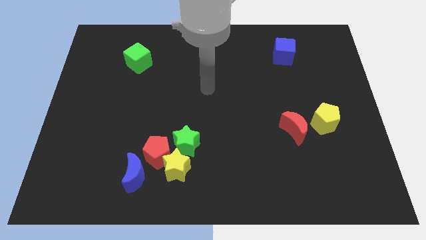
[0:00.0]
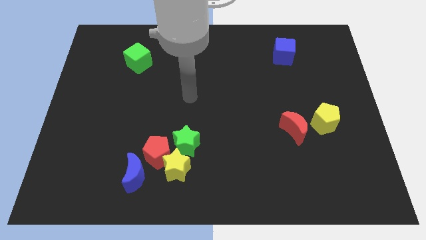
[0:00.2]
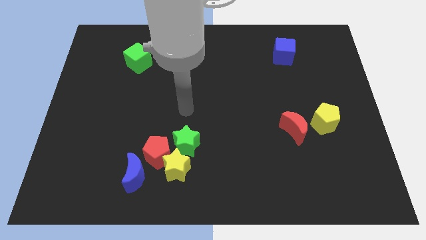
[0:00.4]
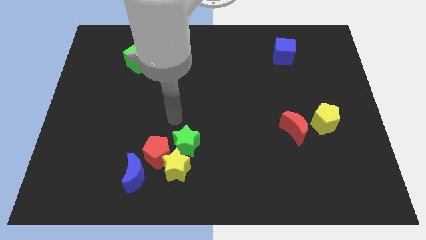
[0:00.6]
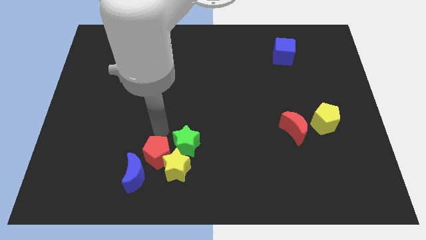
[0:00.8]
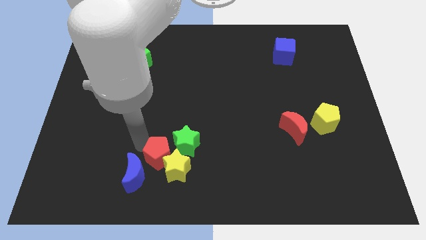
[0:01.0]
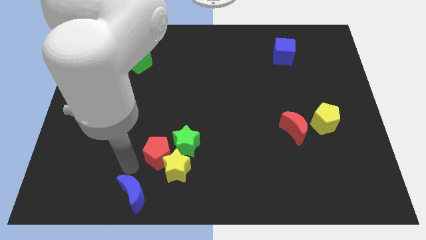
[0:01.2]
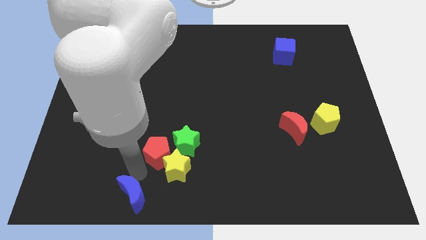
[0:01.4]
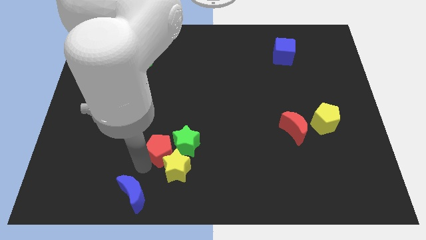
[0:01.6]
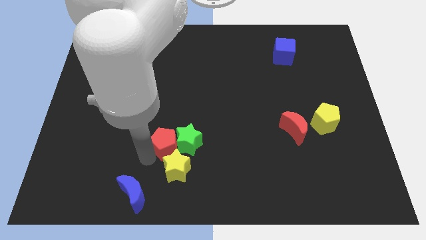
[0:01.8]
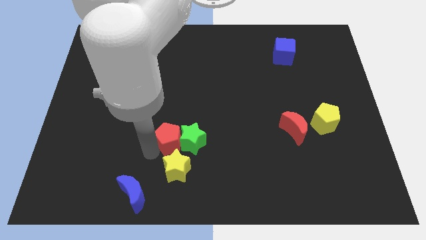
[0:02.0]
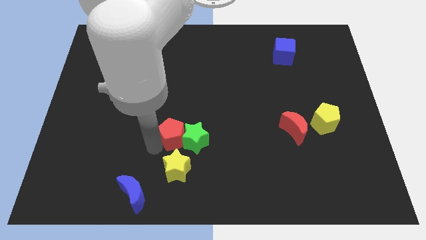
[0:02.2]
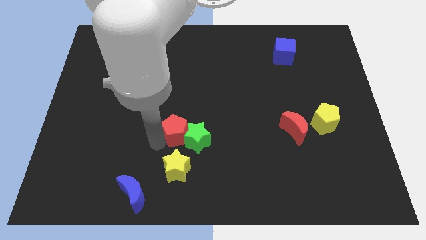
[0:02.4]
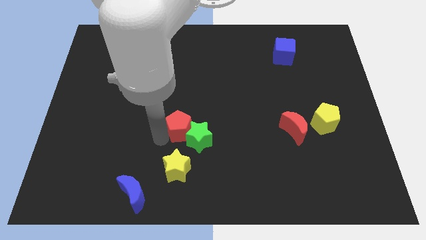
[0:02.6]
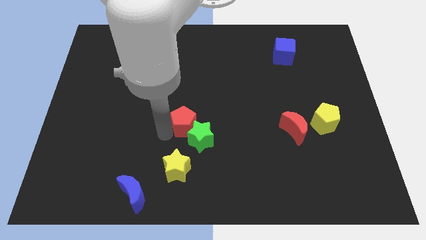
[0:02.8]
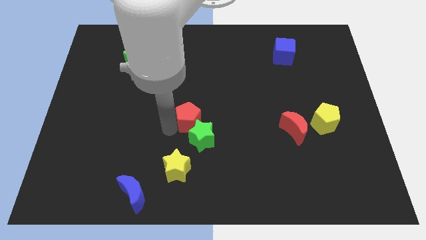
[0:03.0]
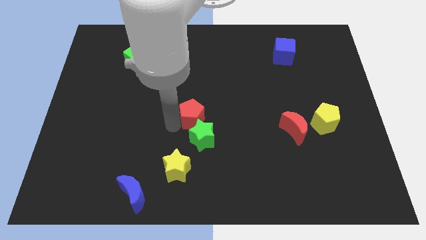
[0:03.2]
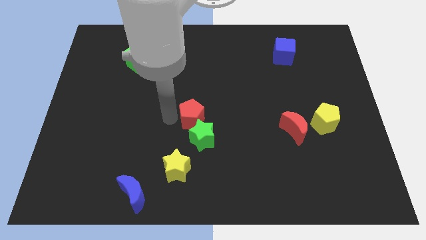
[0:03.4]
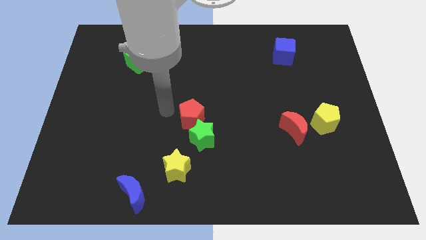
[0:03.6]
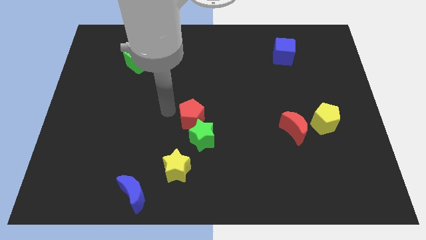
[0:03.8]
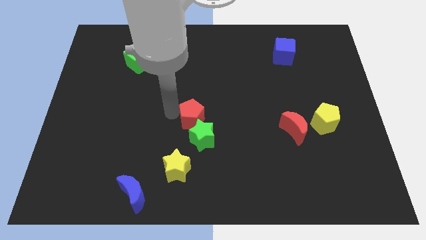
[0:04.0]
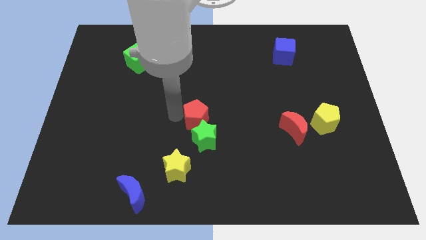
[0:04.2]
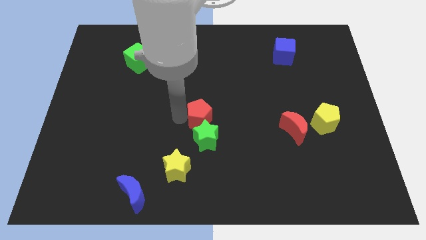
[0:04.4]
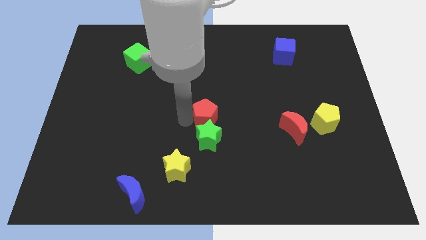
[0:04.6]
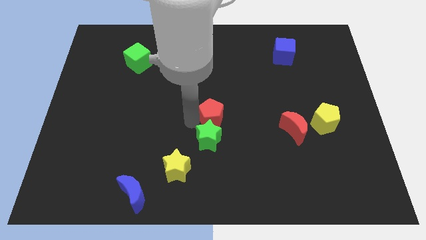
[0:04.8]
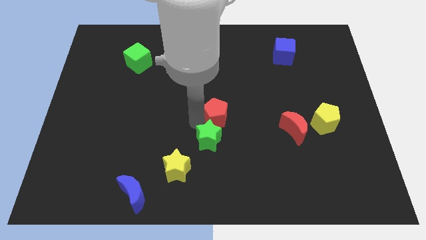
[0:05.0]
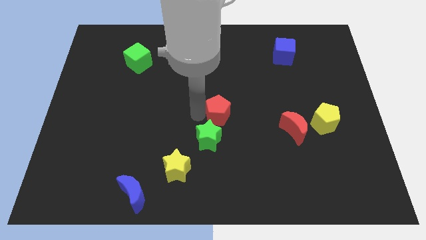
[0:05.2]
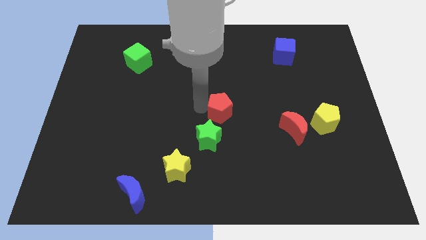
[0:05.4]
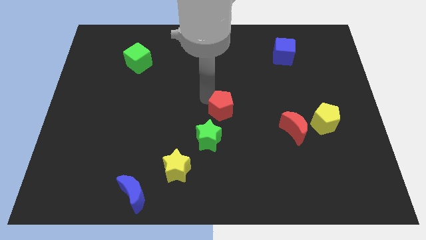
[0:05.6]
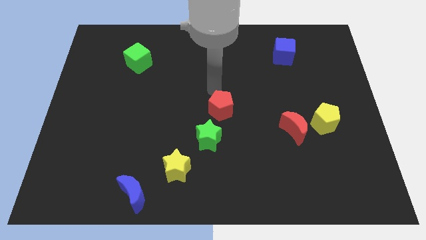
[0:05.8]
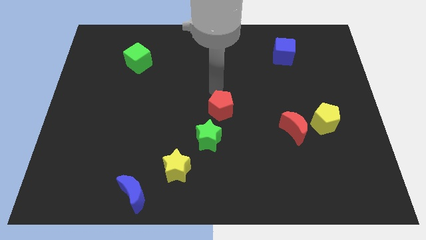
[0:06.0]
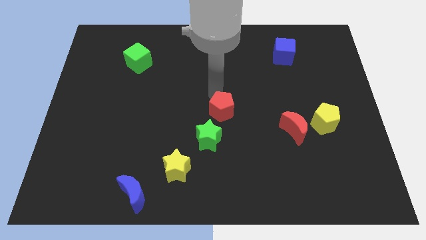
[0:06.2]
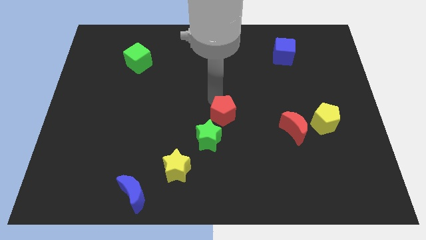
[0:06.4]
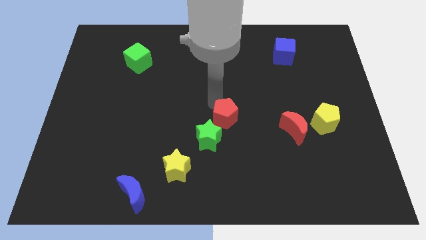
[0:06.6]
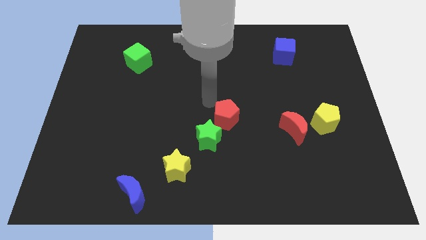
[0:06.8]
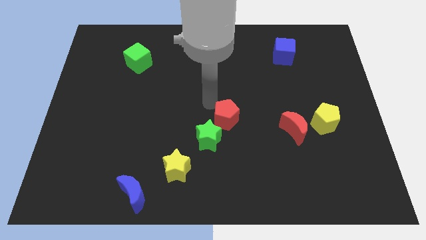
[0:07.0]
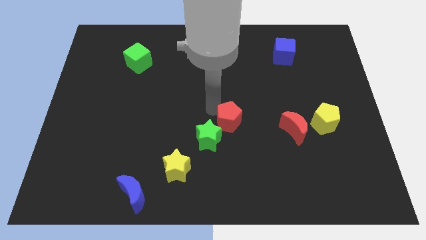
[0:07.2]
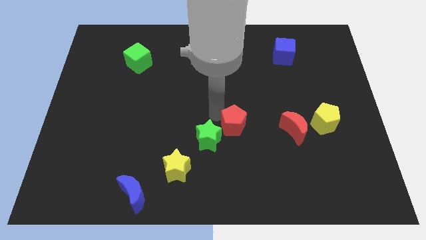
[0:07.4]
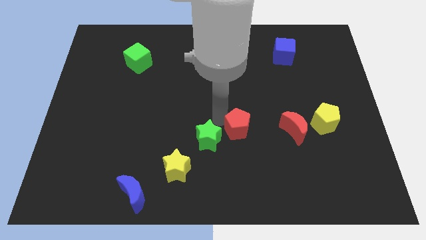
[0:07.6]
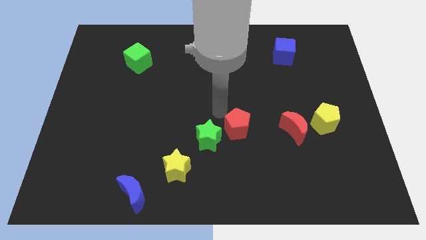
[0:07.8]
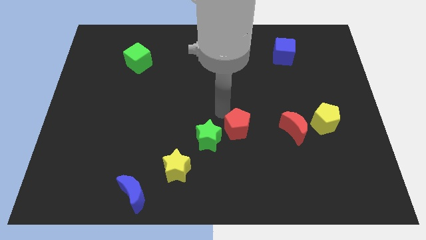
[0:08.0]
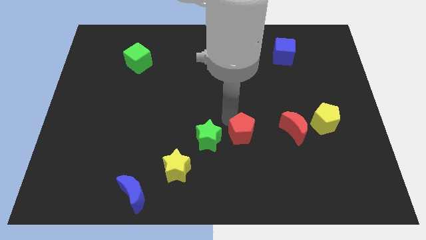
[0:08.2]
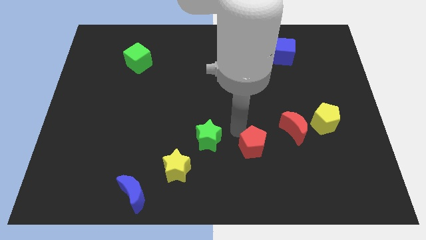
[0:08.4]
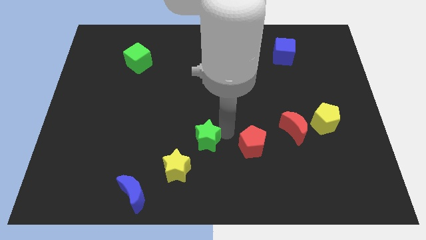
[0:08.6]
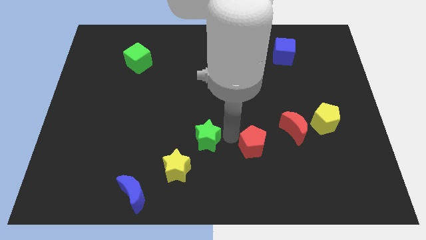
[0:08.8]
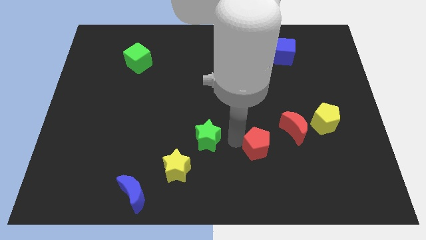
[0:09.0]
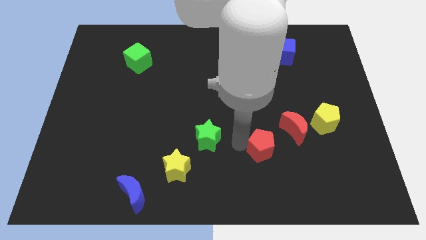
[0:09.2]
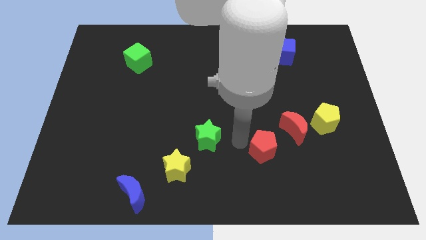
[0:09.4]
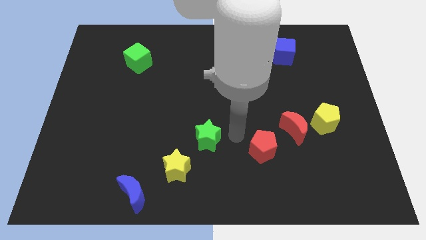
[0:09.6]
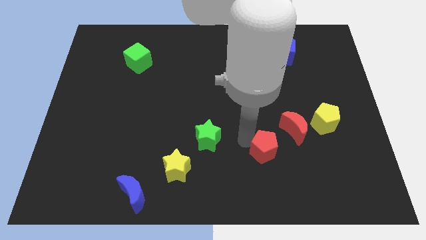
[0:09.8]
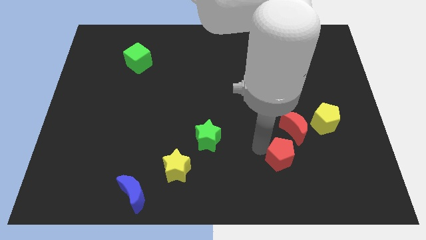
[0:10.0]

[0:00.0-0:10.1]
put the red pentagon to the bottom side of the red moon

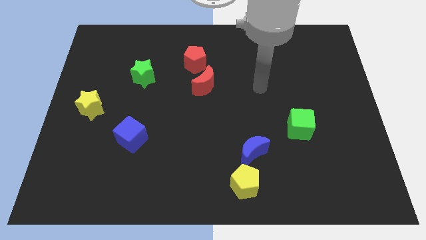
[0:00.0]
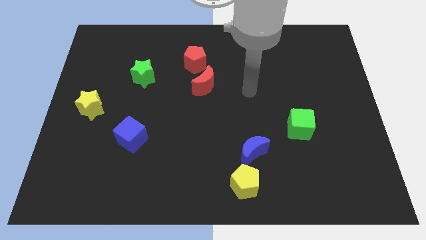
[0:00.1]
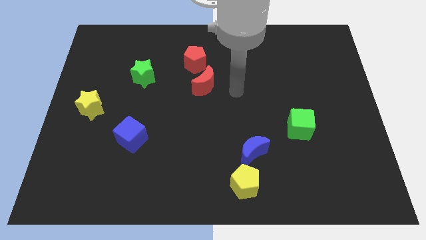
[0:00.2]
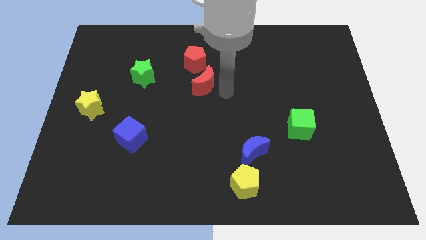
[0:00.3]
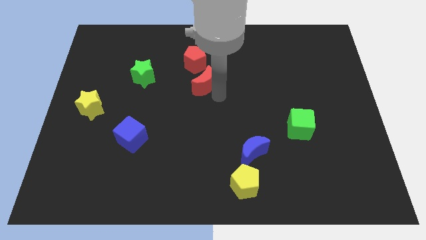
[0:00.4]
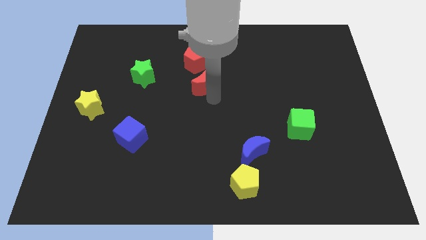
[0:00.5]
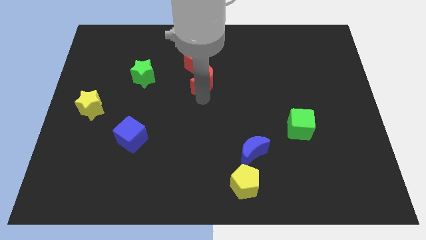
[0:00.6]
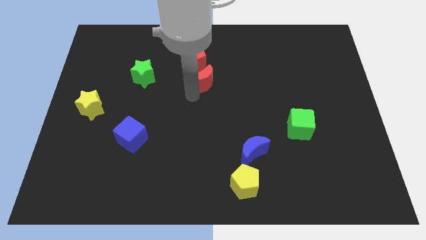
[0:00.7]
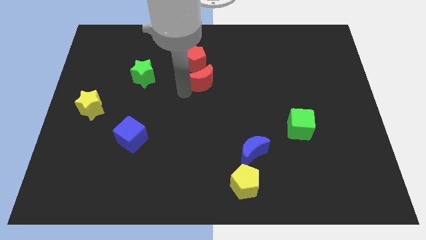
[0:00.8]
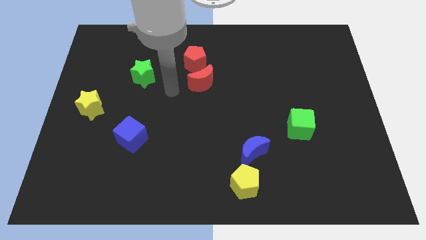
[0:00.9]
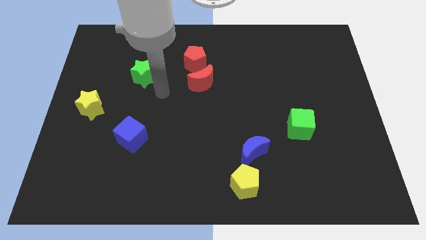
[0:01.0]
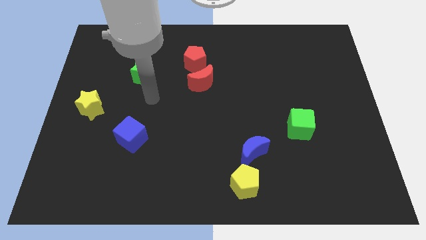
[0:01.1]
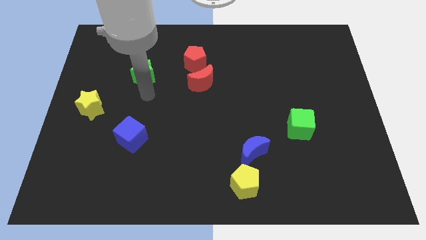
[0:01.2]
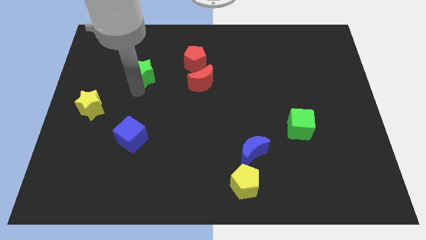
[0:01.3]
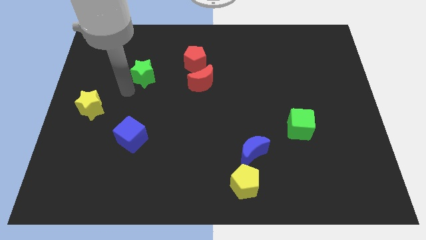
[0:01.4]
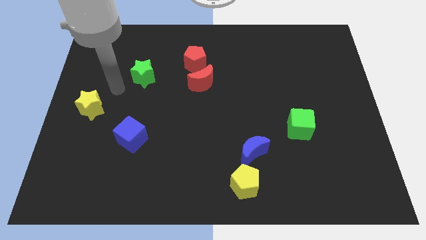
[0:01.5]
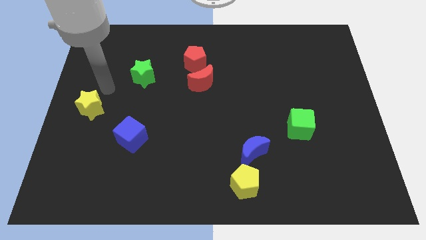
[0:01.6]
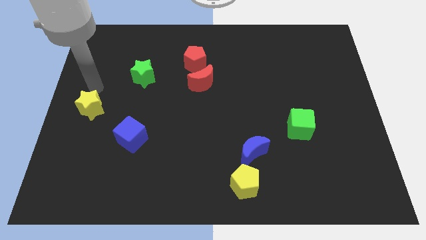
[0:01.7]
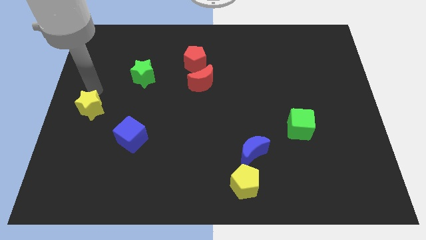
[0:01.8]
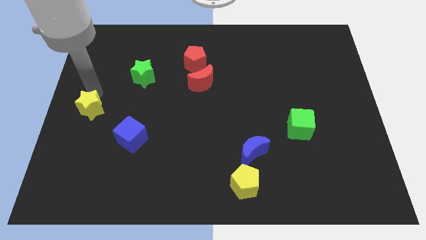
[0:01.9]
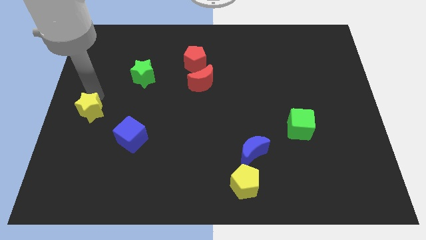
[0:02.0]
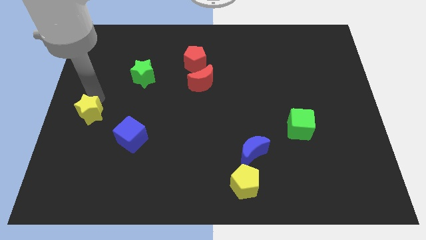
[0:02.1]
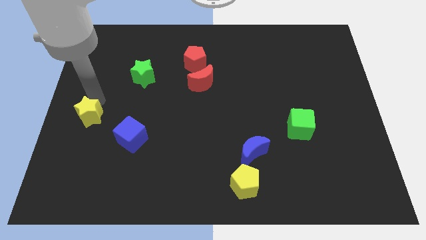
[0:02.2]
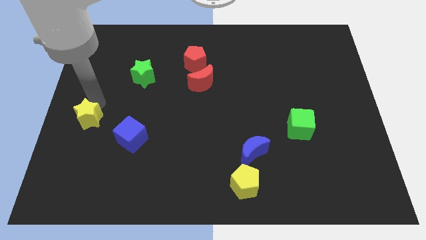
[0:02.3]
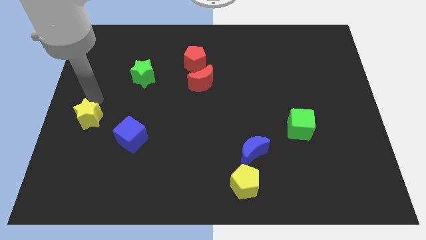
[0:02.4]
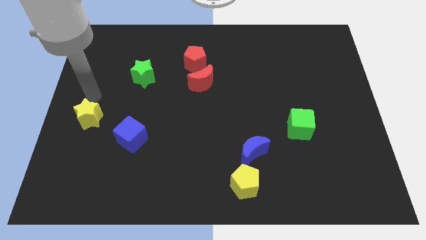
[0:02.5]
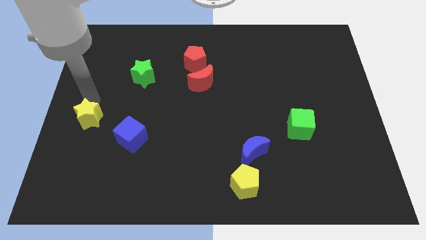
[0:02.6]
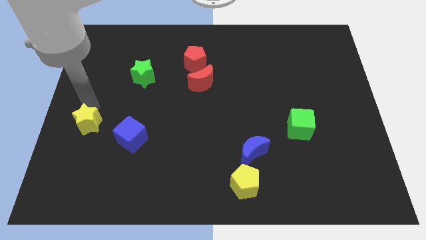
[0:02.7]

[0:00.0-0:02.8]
move the yellow star to the left side of the blue cube

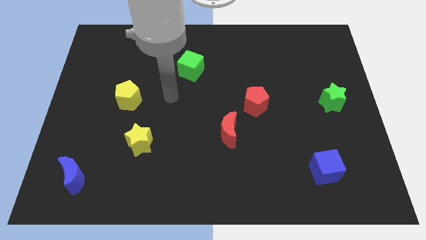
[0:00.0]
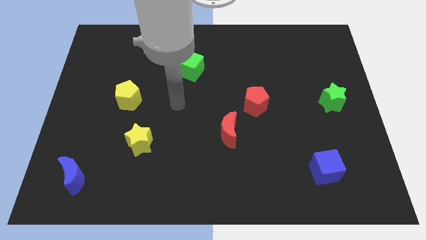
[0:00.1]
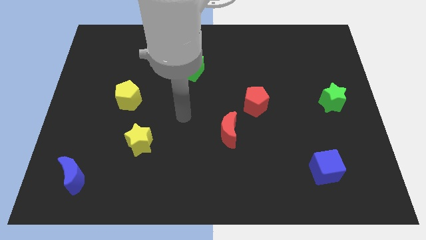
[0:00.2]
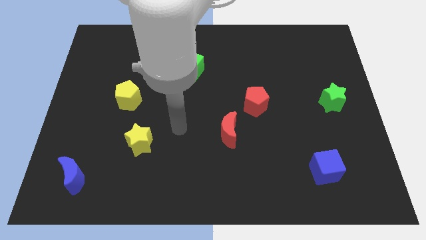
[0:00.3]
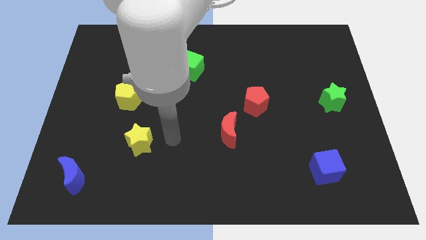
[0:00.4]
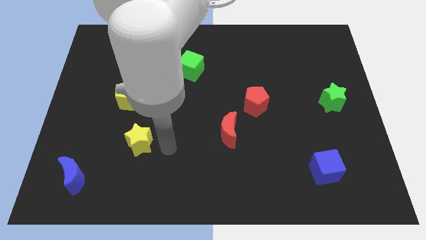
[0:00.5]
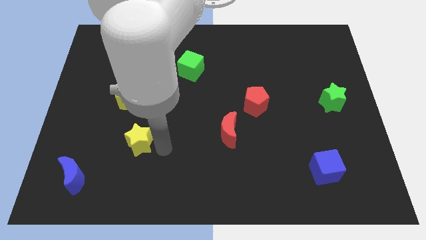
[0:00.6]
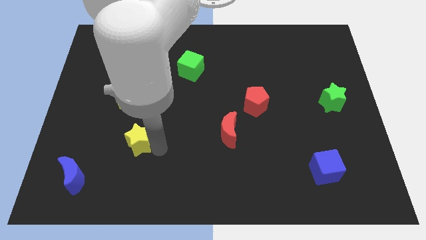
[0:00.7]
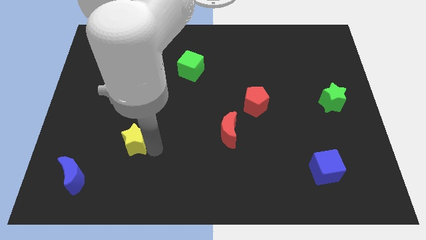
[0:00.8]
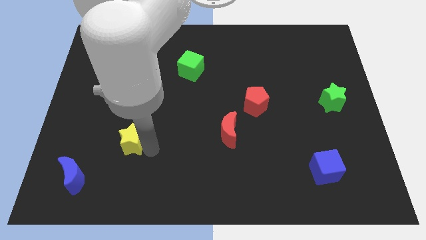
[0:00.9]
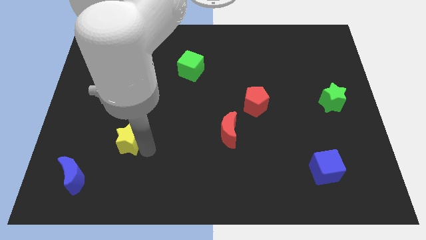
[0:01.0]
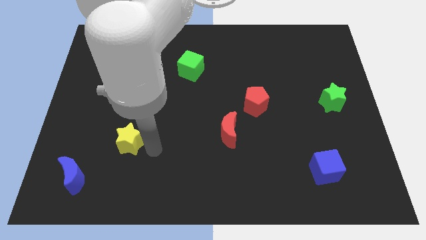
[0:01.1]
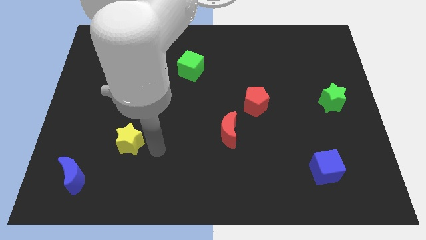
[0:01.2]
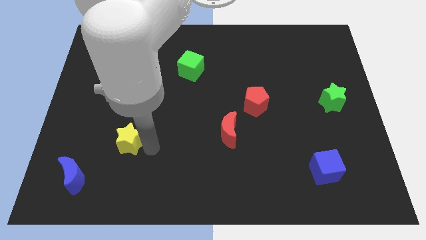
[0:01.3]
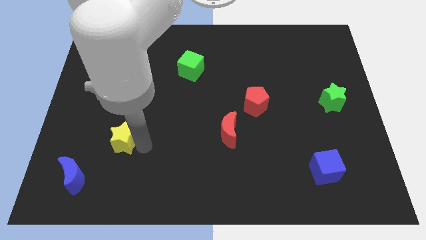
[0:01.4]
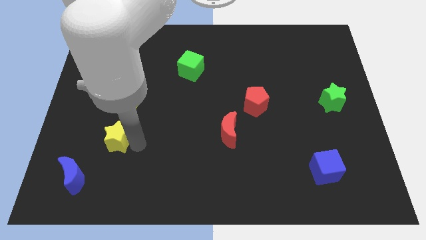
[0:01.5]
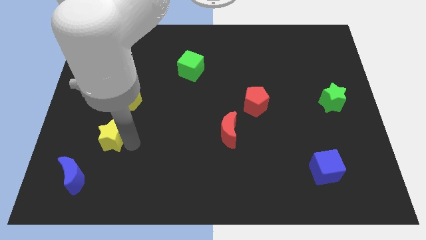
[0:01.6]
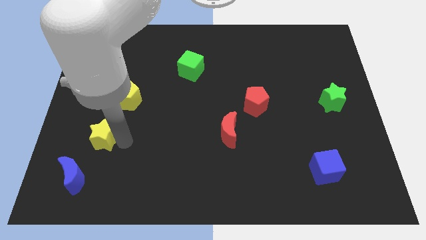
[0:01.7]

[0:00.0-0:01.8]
put the yellow star above the blue moon
